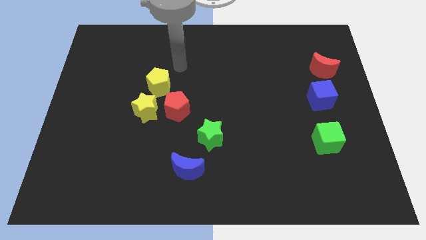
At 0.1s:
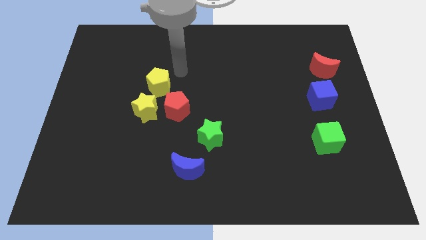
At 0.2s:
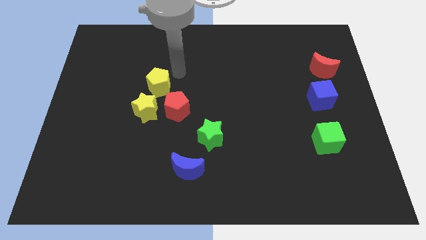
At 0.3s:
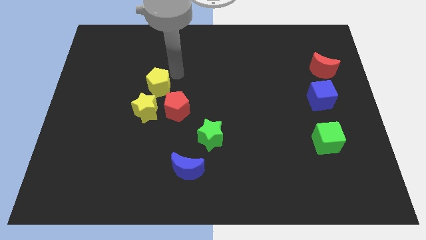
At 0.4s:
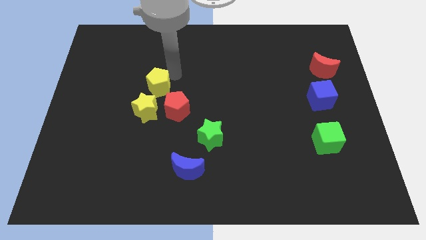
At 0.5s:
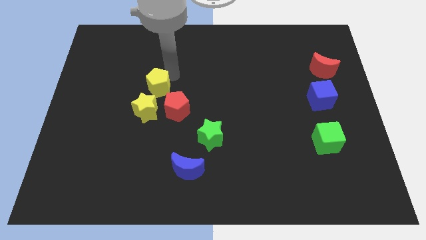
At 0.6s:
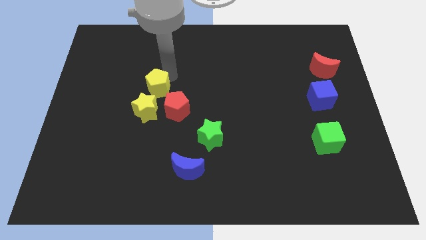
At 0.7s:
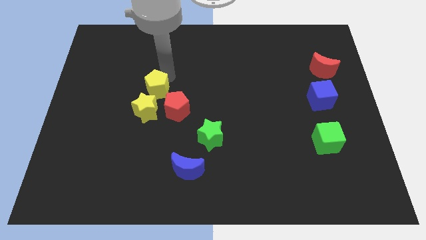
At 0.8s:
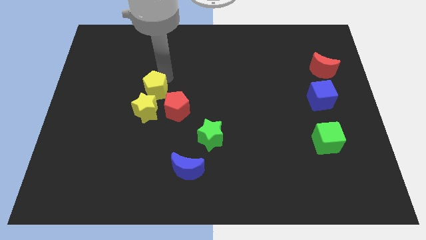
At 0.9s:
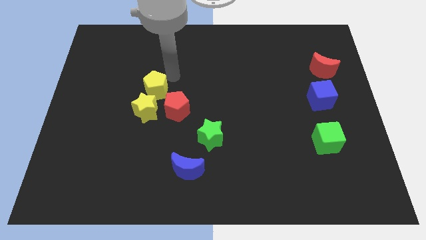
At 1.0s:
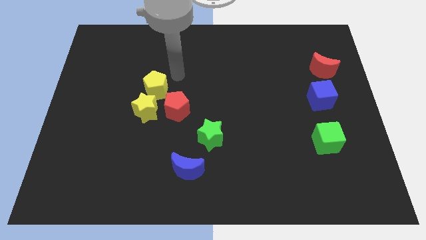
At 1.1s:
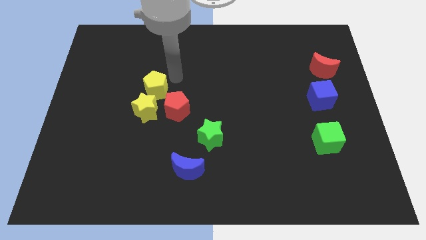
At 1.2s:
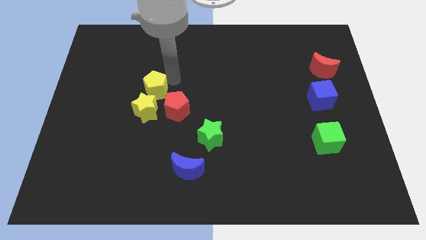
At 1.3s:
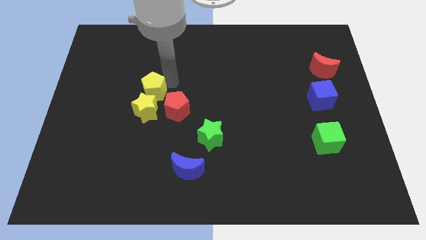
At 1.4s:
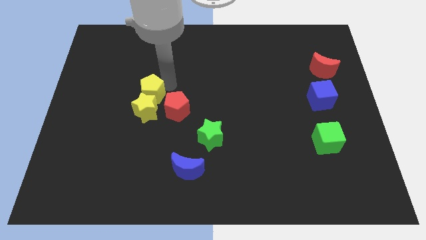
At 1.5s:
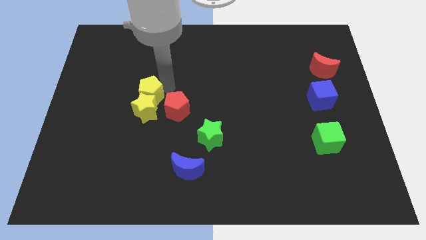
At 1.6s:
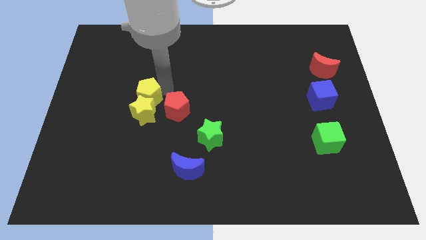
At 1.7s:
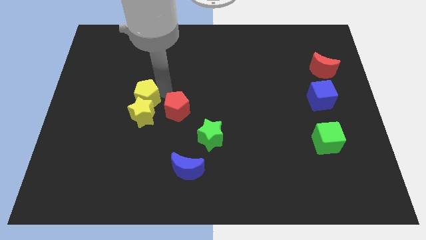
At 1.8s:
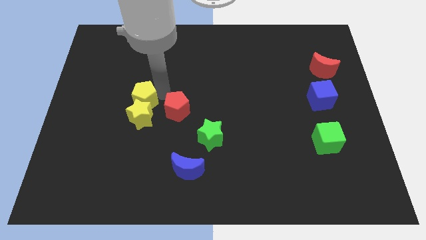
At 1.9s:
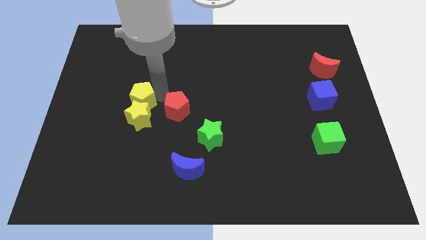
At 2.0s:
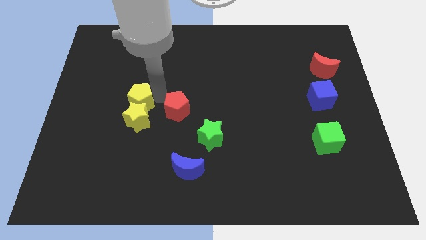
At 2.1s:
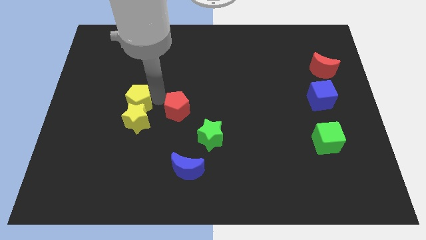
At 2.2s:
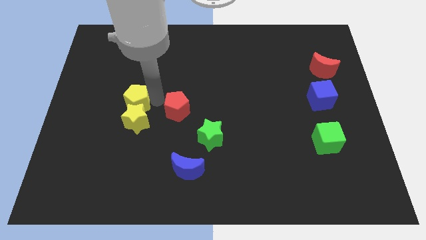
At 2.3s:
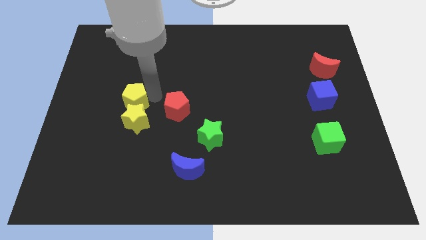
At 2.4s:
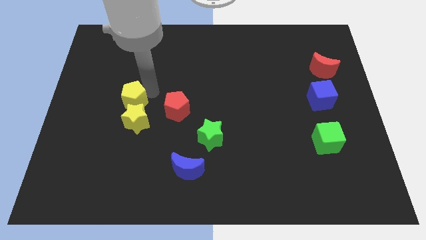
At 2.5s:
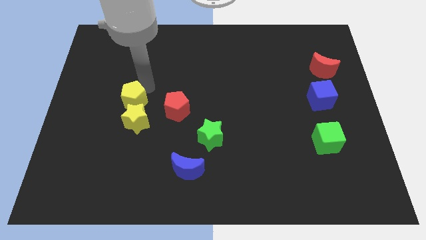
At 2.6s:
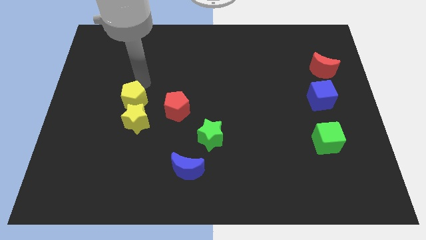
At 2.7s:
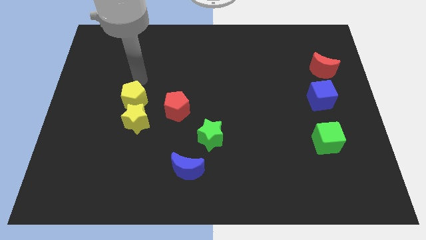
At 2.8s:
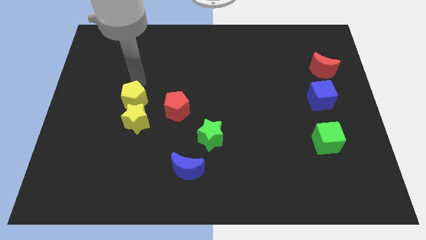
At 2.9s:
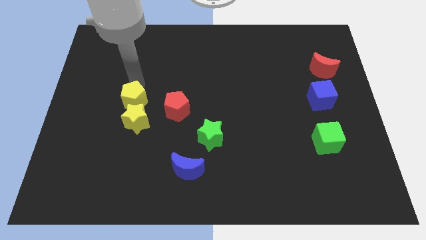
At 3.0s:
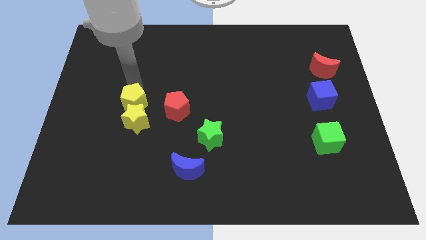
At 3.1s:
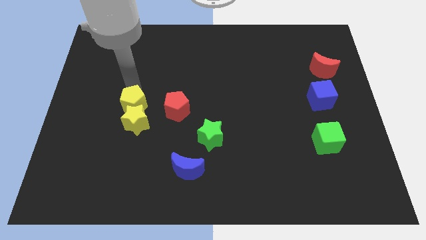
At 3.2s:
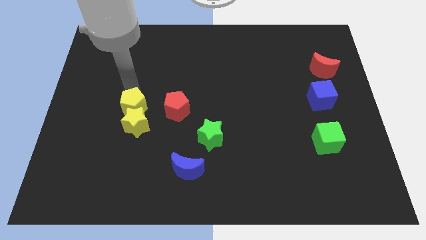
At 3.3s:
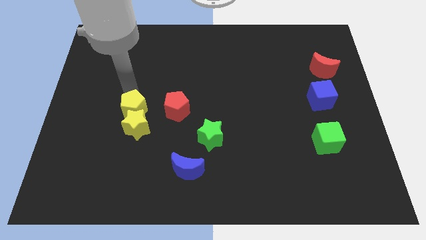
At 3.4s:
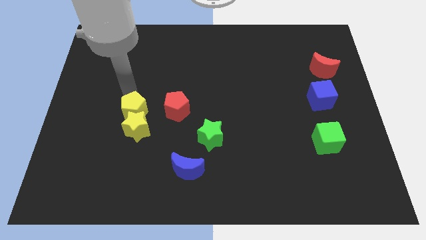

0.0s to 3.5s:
push the yellow pentagon somewhat down

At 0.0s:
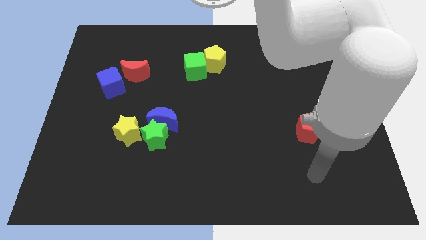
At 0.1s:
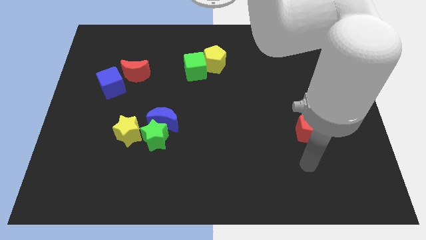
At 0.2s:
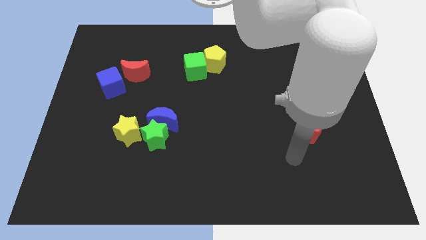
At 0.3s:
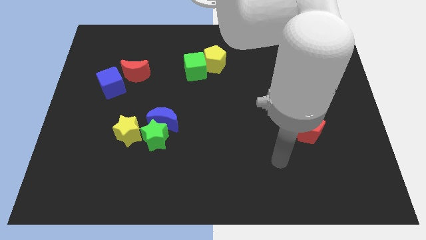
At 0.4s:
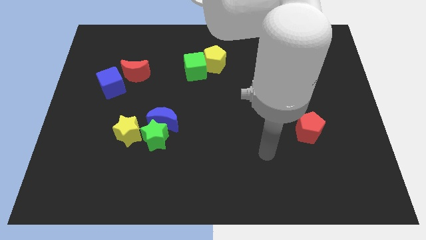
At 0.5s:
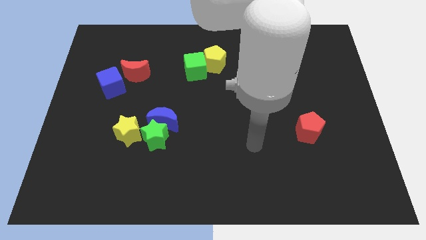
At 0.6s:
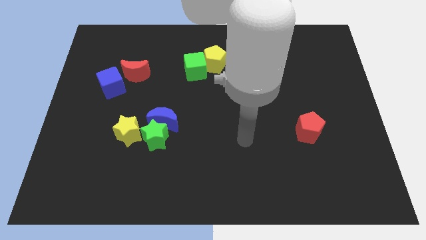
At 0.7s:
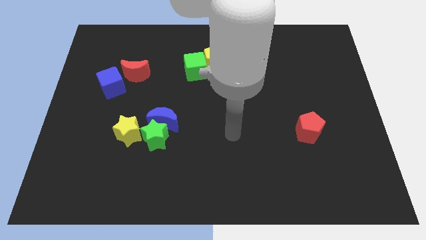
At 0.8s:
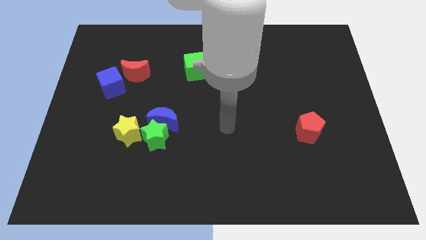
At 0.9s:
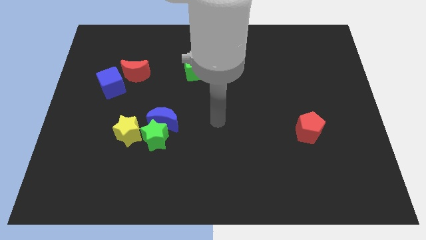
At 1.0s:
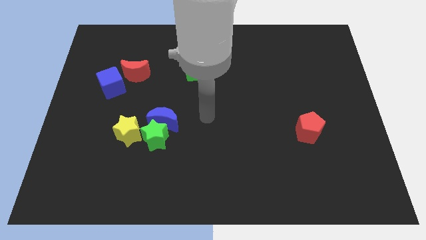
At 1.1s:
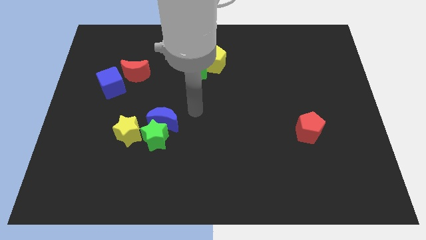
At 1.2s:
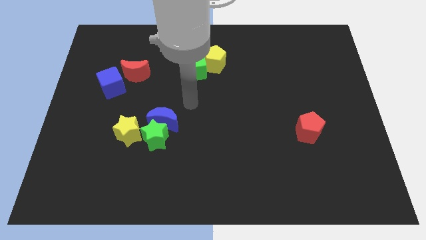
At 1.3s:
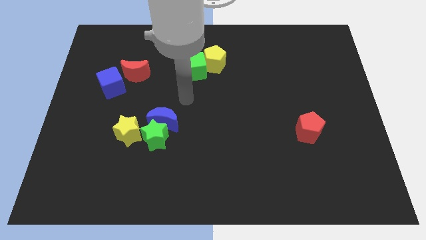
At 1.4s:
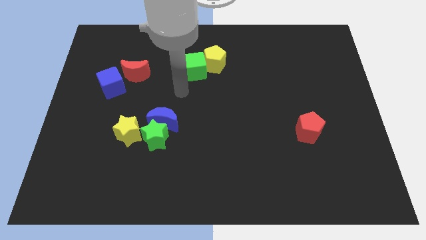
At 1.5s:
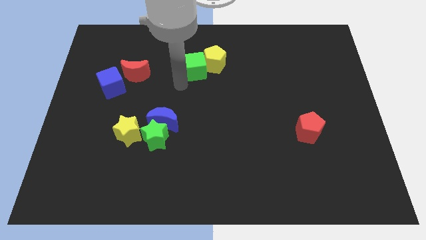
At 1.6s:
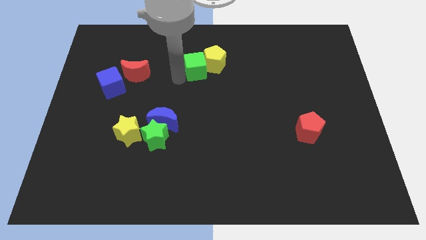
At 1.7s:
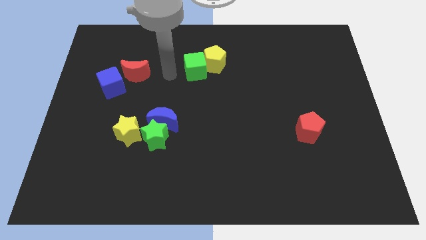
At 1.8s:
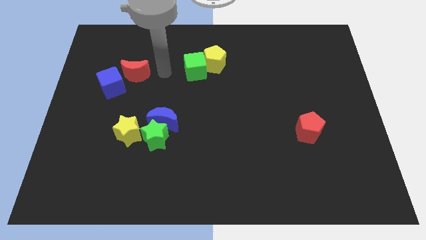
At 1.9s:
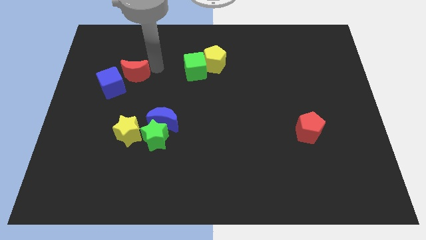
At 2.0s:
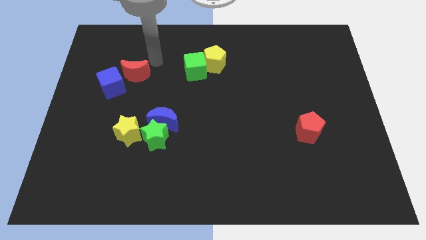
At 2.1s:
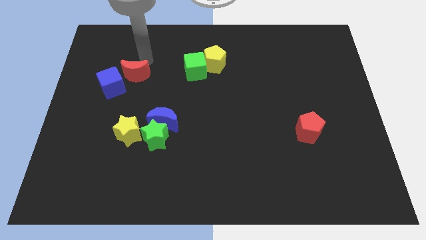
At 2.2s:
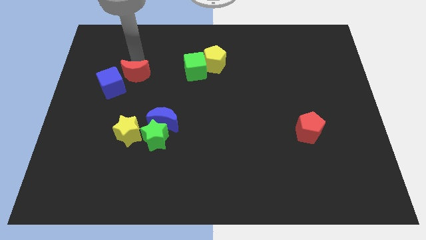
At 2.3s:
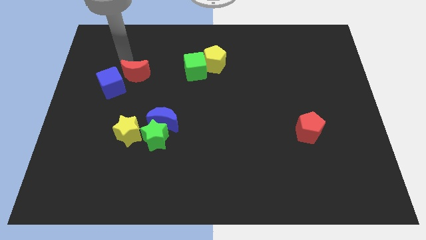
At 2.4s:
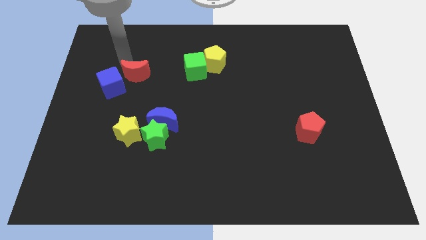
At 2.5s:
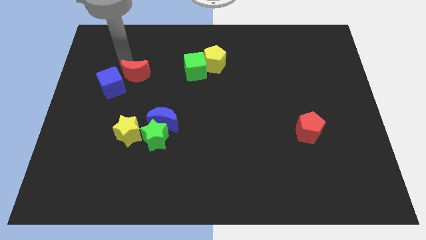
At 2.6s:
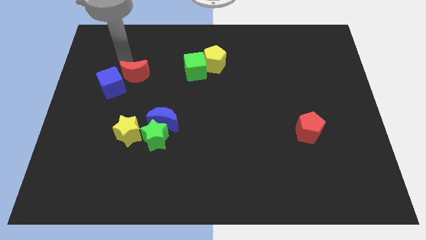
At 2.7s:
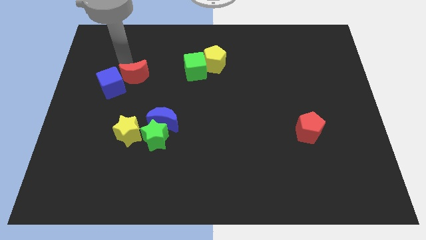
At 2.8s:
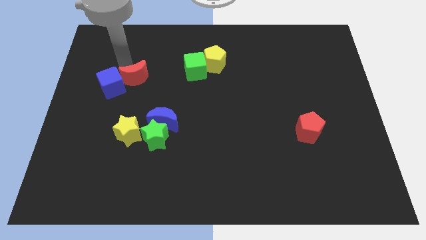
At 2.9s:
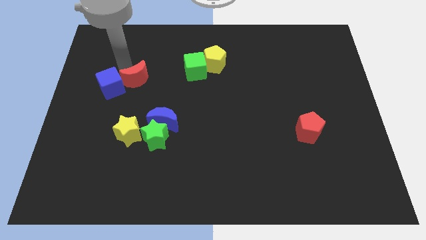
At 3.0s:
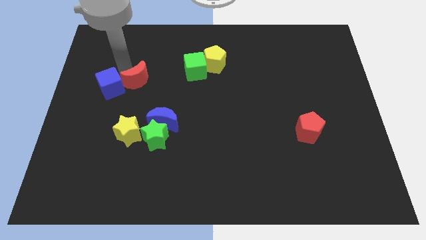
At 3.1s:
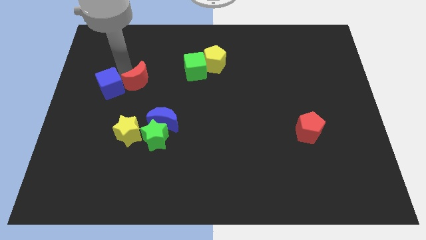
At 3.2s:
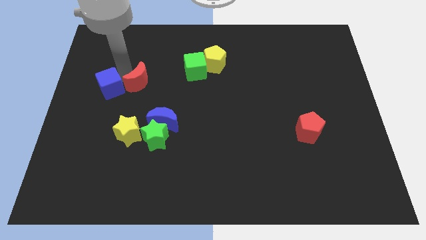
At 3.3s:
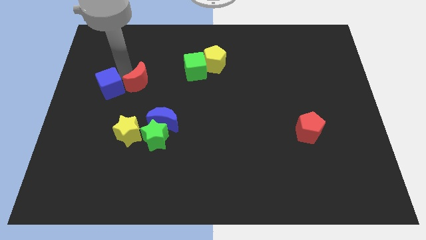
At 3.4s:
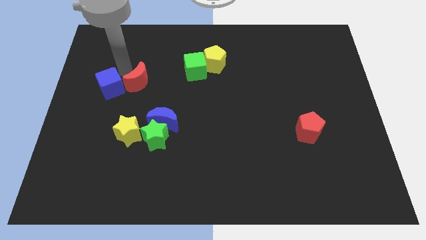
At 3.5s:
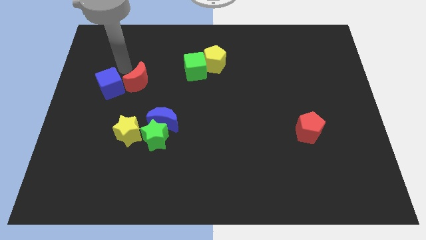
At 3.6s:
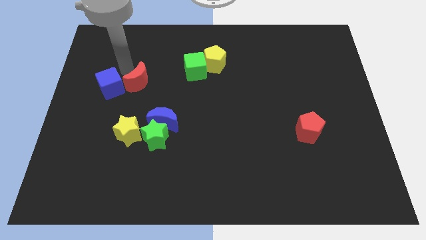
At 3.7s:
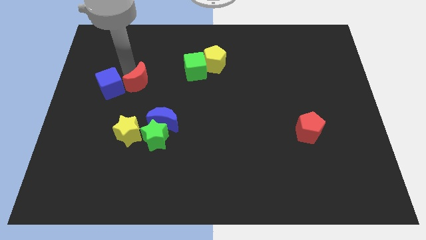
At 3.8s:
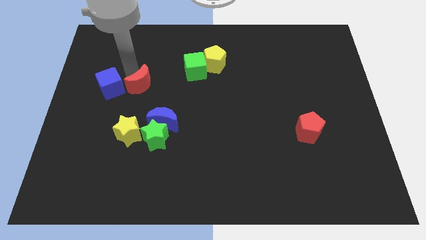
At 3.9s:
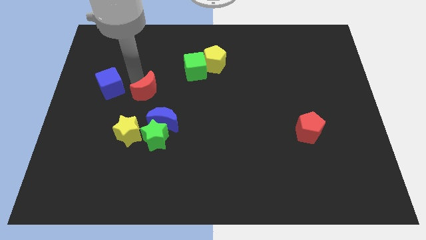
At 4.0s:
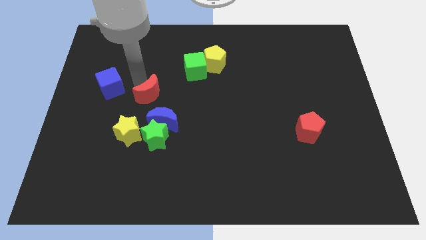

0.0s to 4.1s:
slide the red moon diagonally downwards and right a bit

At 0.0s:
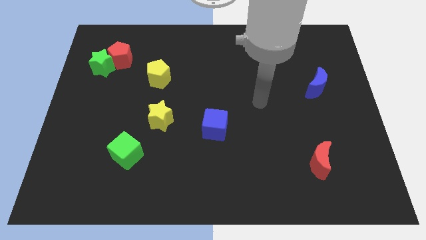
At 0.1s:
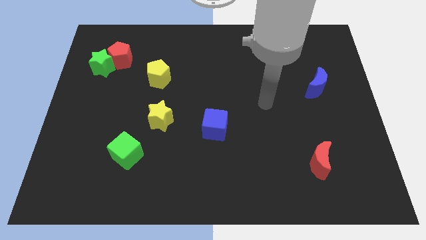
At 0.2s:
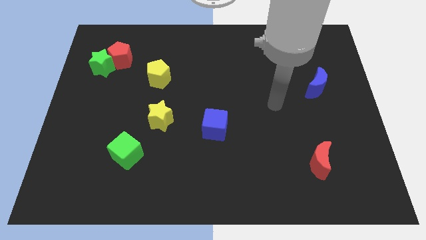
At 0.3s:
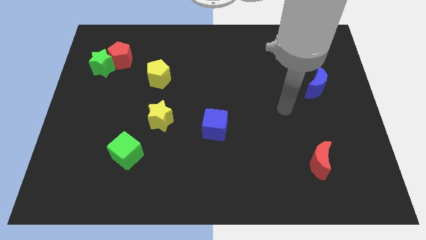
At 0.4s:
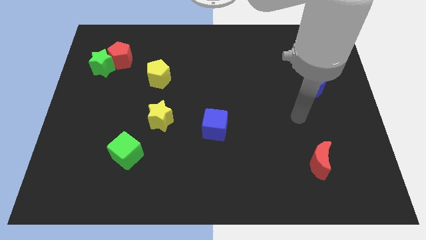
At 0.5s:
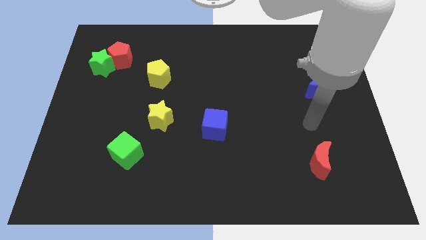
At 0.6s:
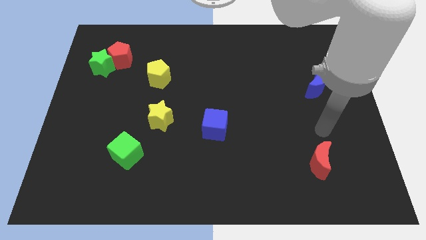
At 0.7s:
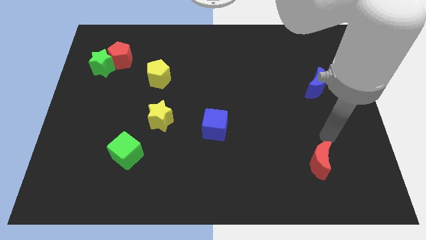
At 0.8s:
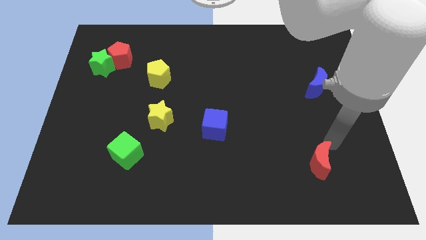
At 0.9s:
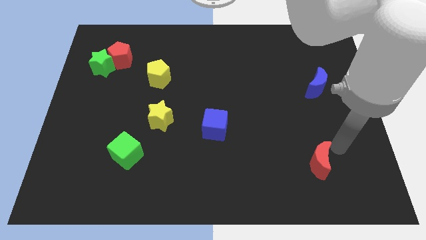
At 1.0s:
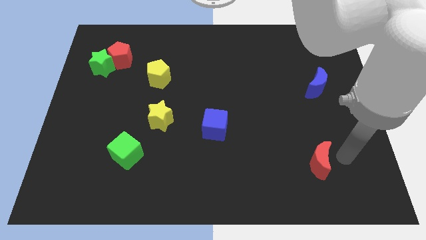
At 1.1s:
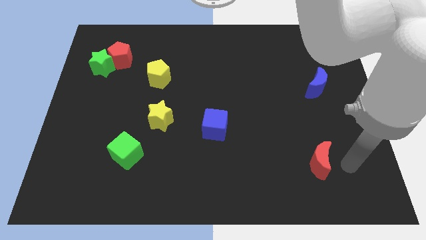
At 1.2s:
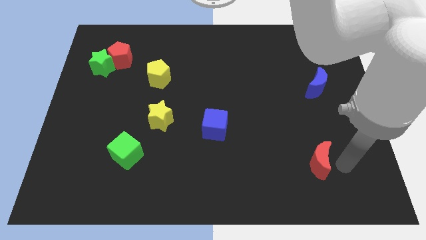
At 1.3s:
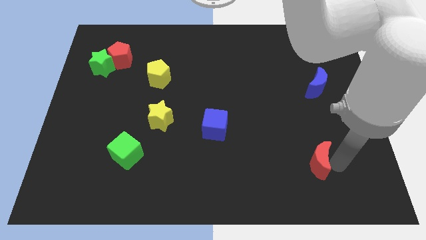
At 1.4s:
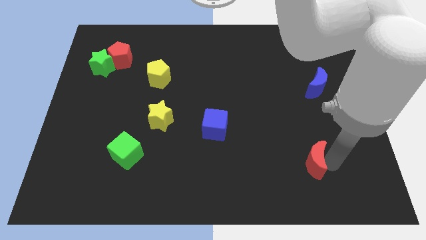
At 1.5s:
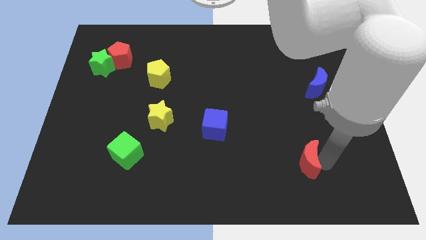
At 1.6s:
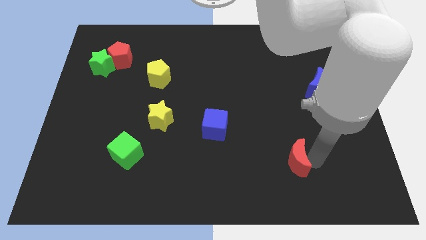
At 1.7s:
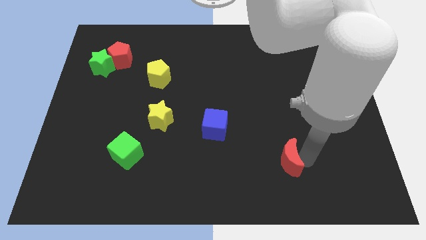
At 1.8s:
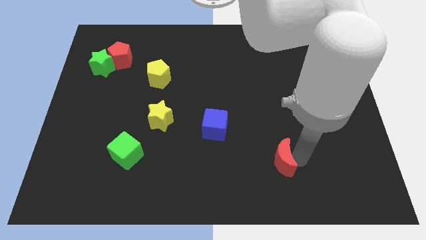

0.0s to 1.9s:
slightly push the red moon left
